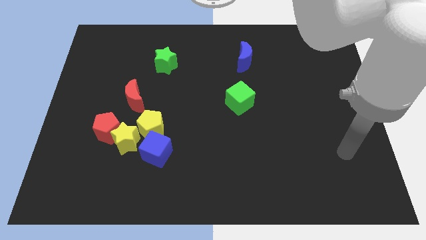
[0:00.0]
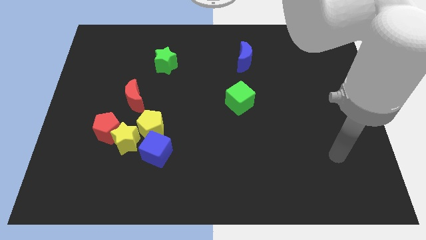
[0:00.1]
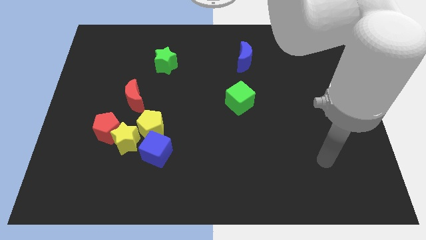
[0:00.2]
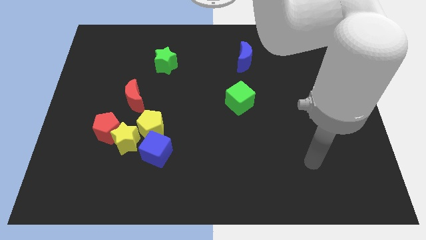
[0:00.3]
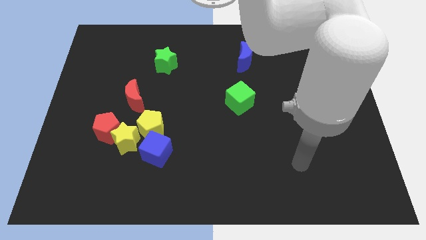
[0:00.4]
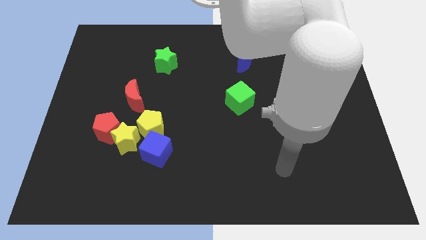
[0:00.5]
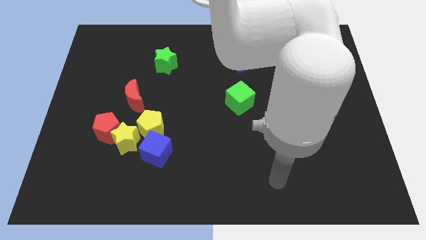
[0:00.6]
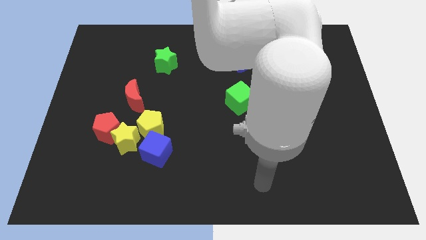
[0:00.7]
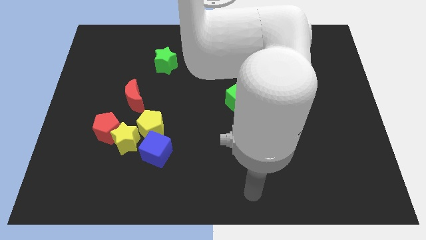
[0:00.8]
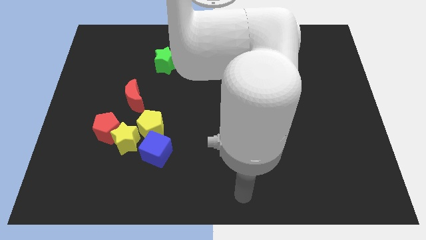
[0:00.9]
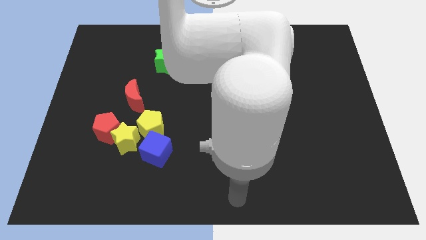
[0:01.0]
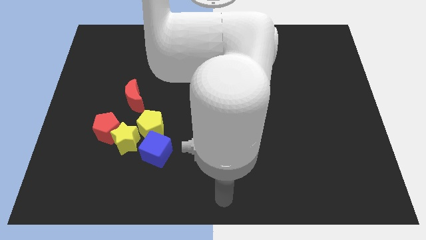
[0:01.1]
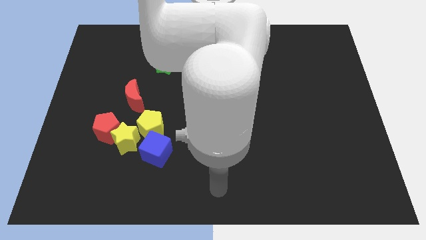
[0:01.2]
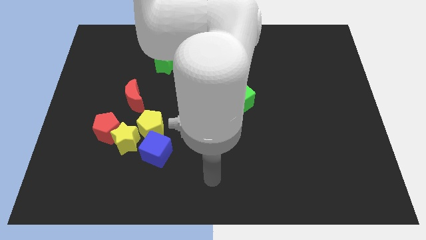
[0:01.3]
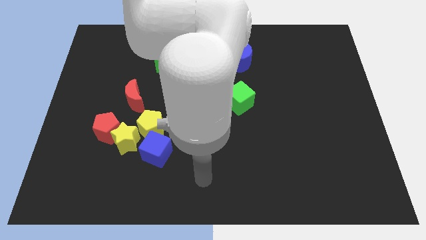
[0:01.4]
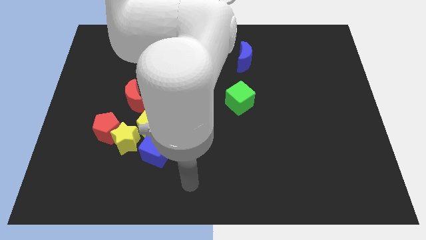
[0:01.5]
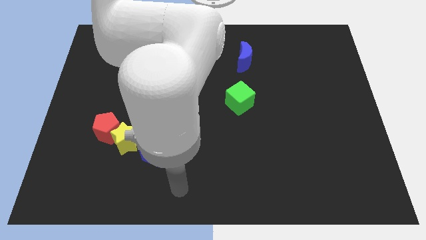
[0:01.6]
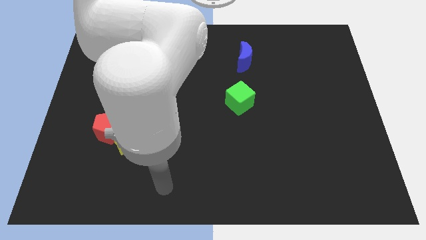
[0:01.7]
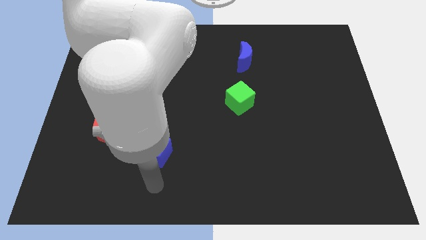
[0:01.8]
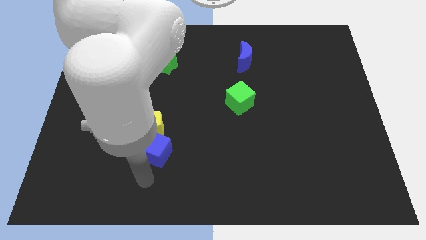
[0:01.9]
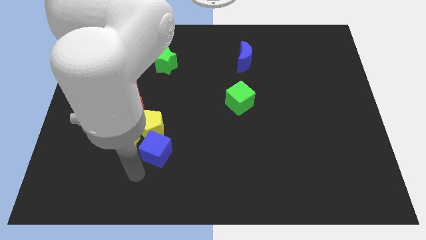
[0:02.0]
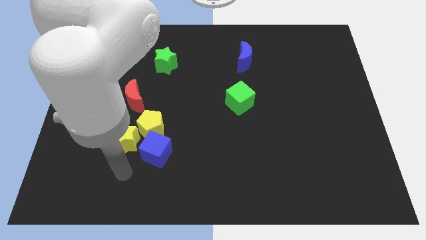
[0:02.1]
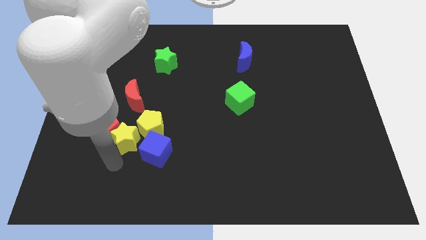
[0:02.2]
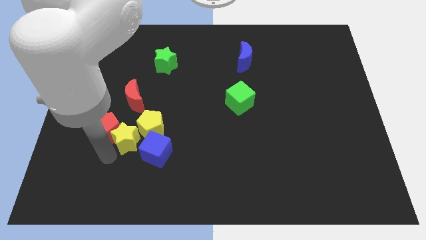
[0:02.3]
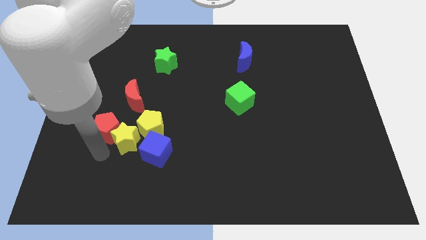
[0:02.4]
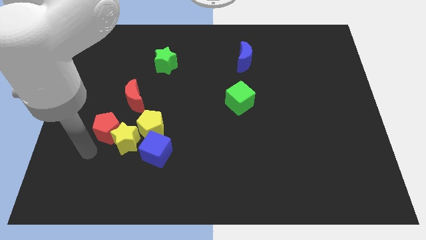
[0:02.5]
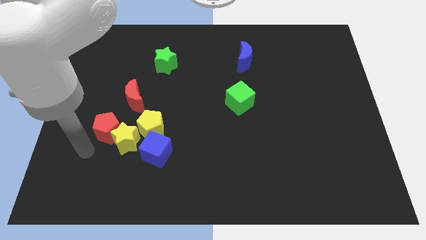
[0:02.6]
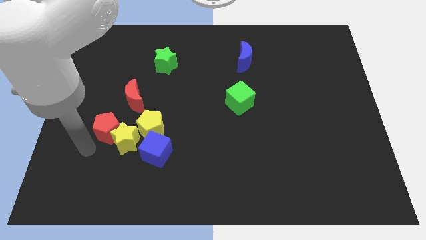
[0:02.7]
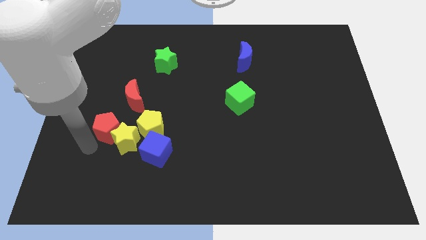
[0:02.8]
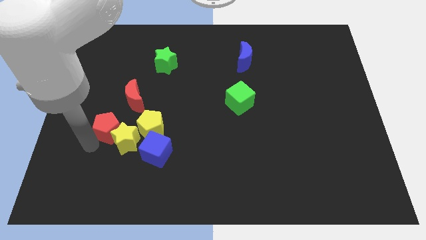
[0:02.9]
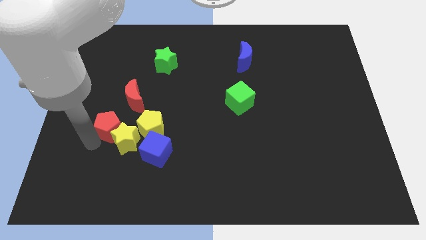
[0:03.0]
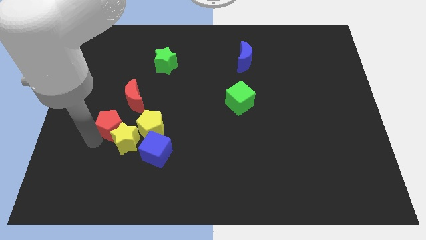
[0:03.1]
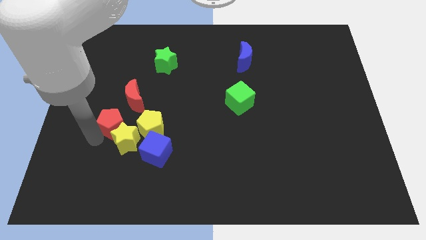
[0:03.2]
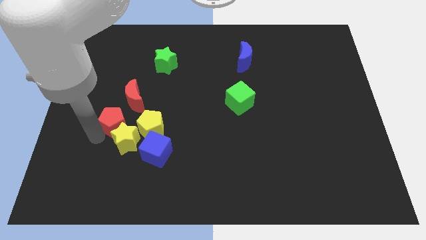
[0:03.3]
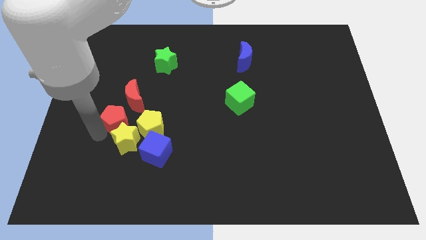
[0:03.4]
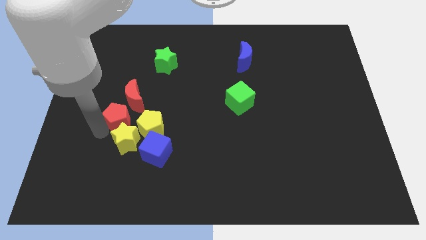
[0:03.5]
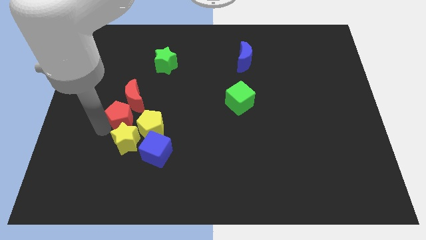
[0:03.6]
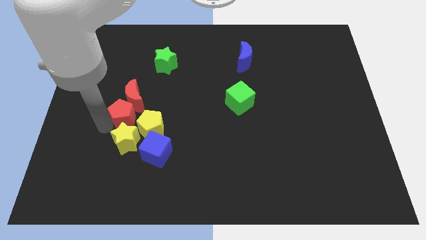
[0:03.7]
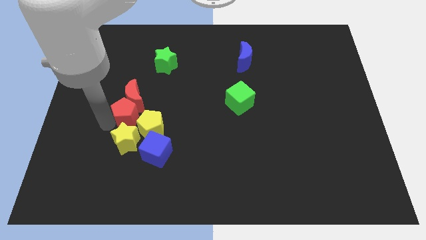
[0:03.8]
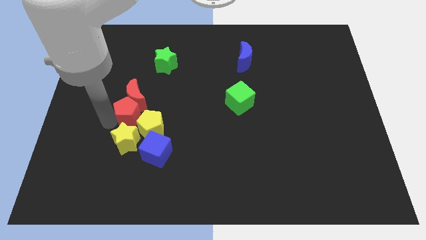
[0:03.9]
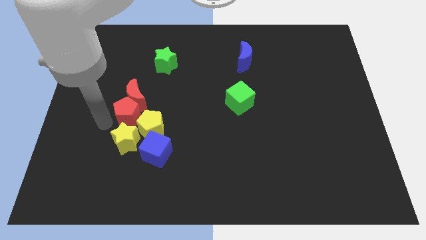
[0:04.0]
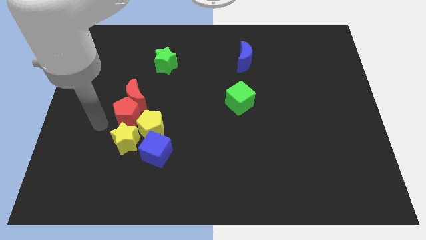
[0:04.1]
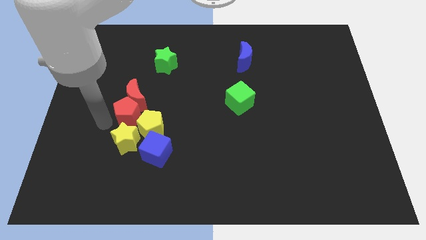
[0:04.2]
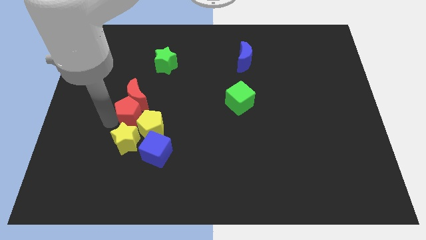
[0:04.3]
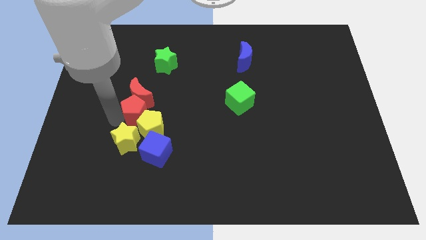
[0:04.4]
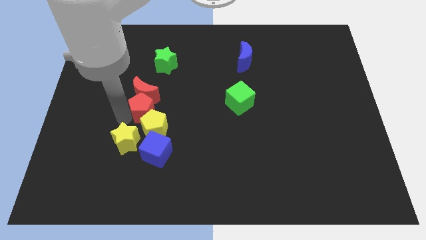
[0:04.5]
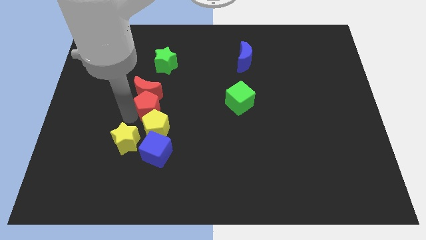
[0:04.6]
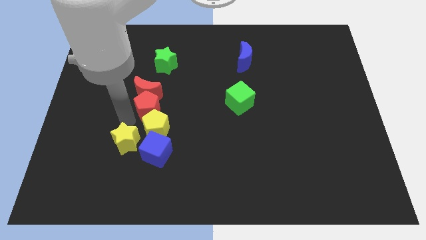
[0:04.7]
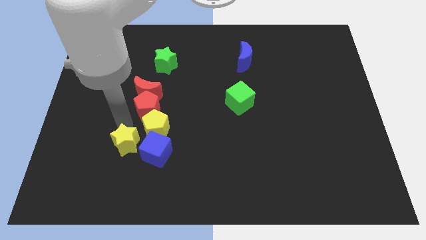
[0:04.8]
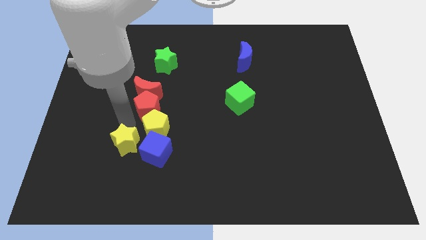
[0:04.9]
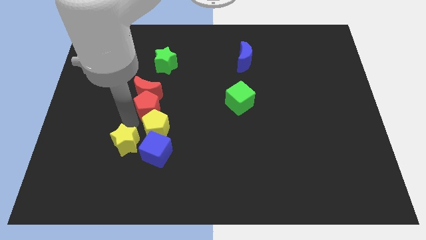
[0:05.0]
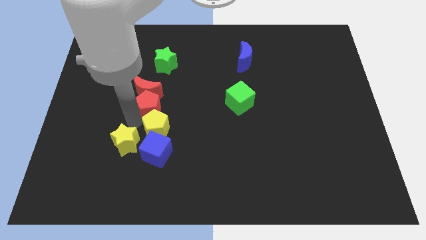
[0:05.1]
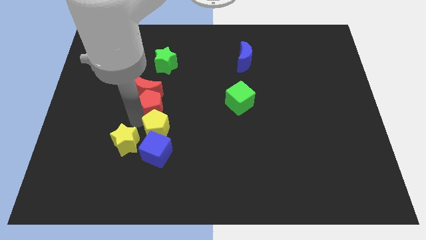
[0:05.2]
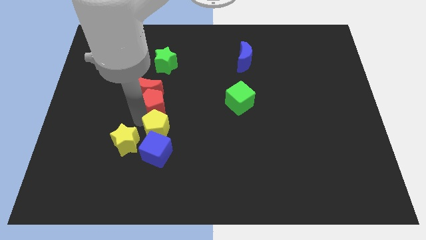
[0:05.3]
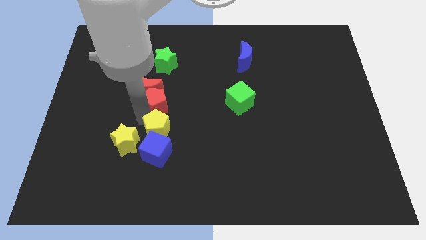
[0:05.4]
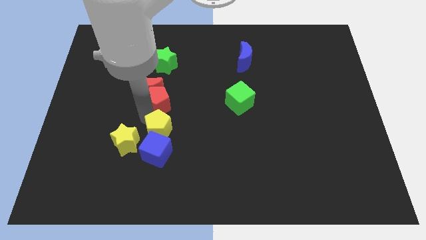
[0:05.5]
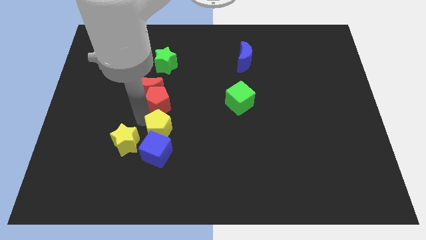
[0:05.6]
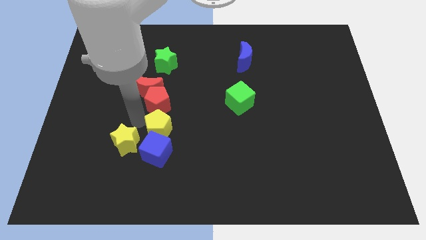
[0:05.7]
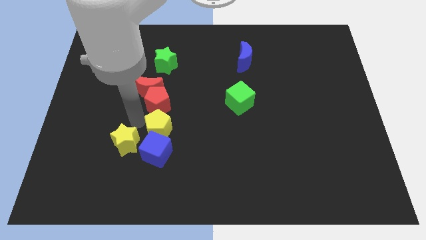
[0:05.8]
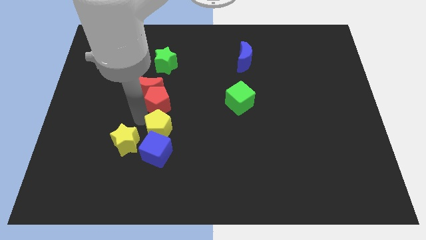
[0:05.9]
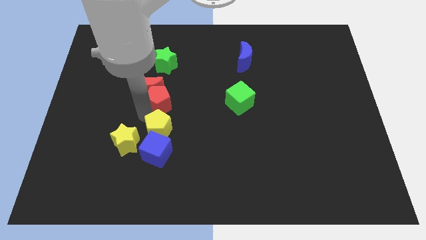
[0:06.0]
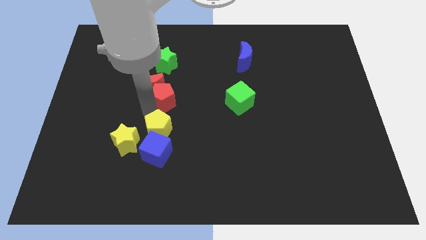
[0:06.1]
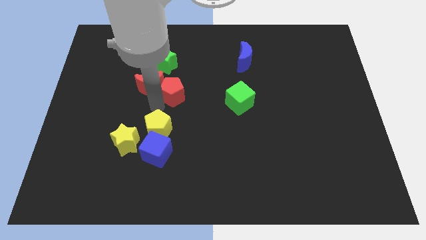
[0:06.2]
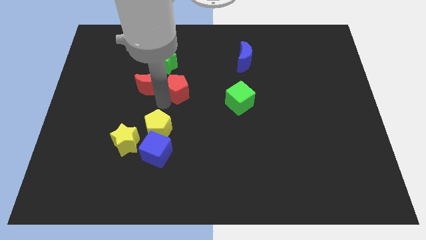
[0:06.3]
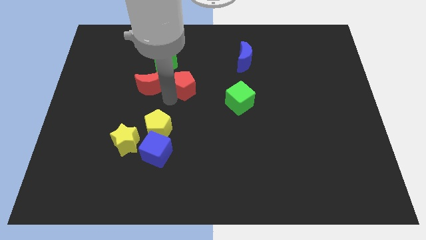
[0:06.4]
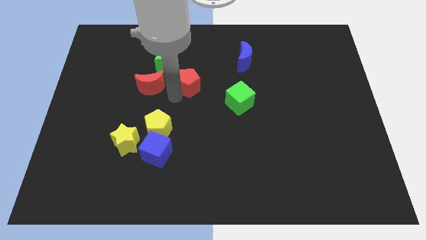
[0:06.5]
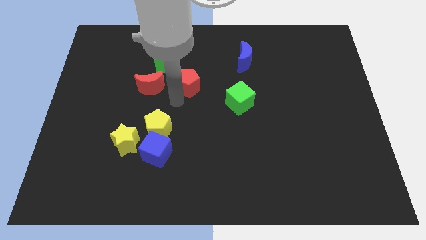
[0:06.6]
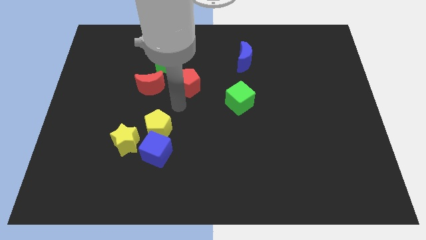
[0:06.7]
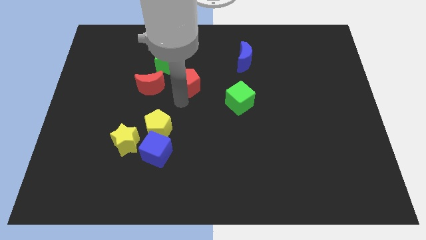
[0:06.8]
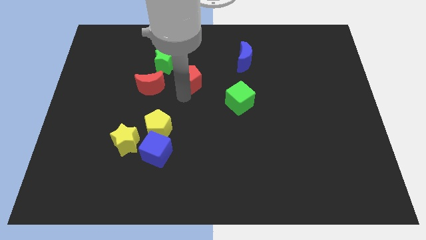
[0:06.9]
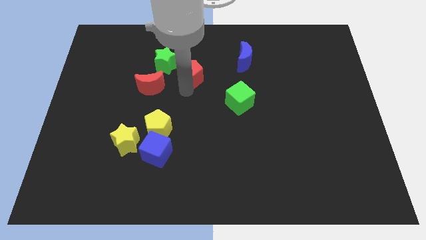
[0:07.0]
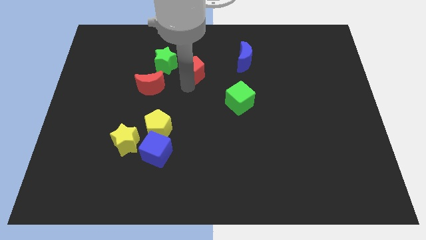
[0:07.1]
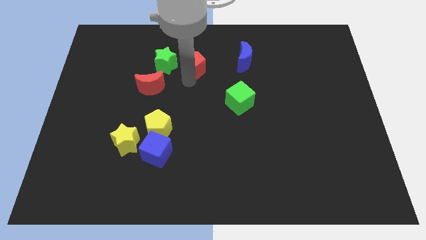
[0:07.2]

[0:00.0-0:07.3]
put the red pentagon to the left of the blue moon
